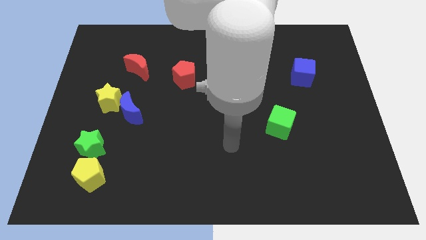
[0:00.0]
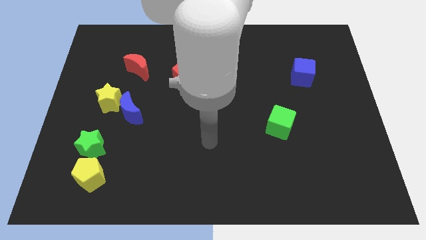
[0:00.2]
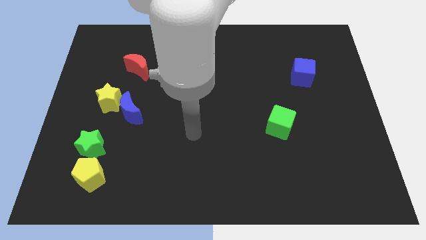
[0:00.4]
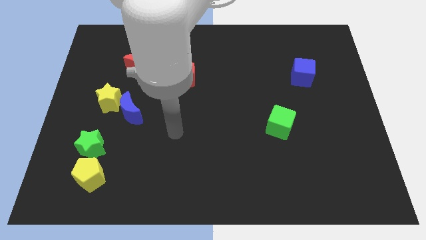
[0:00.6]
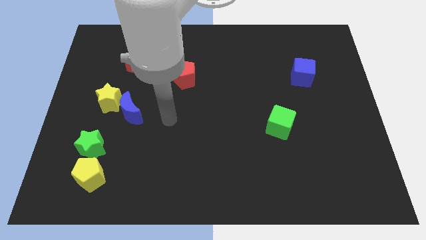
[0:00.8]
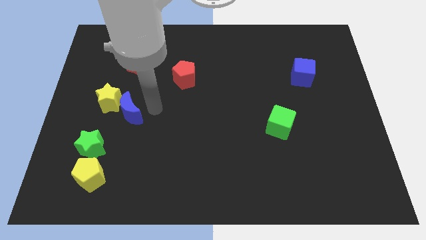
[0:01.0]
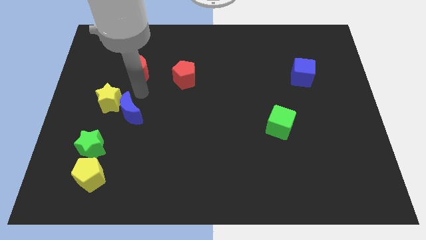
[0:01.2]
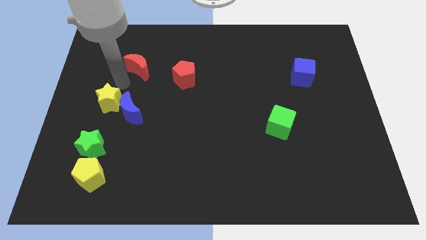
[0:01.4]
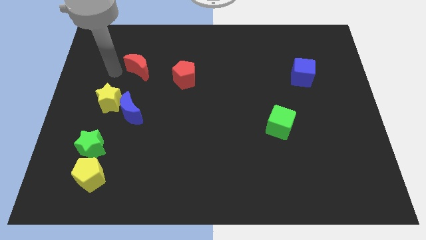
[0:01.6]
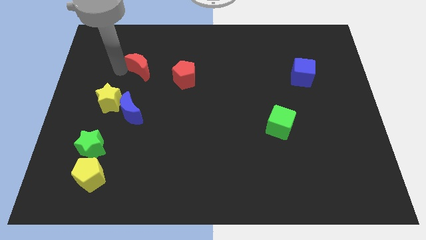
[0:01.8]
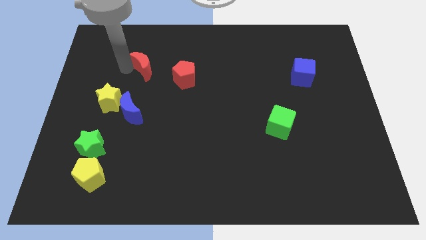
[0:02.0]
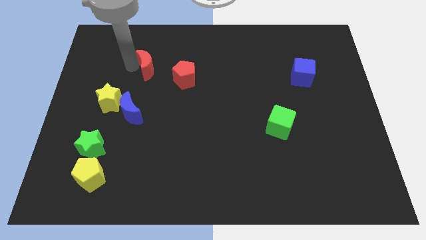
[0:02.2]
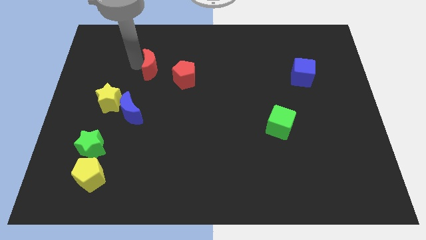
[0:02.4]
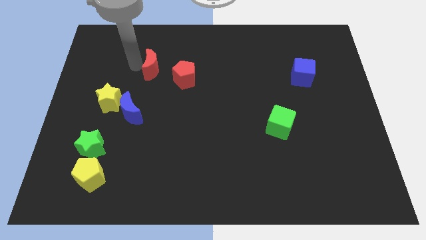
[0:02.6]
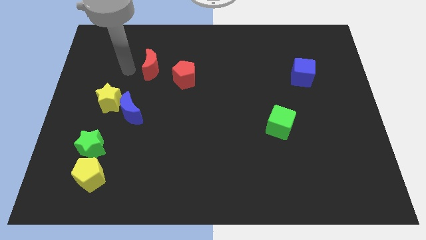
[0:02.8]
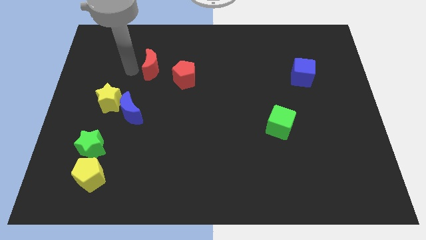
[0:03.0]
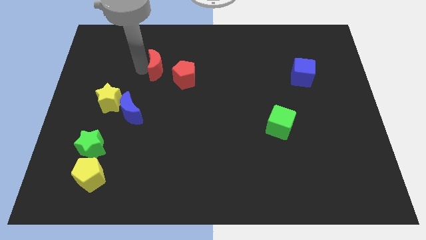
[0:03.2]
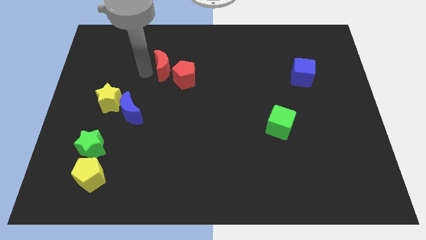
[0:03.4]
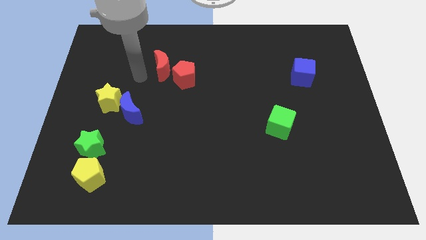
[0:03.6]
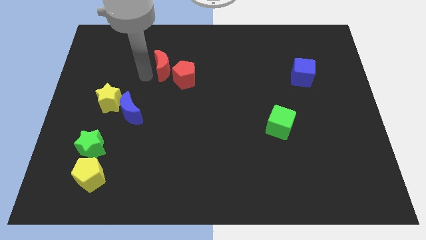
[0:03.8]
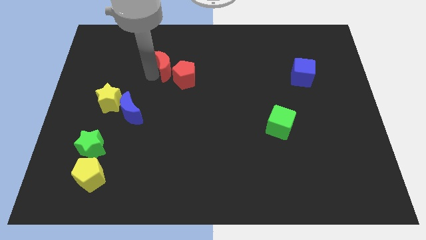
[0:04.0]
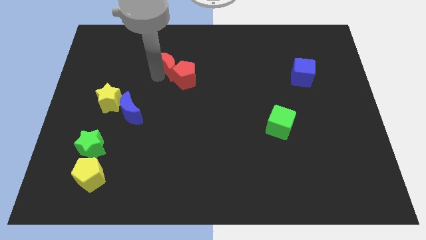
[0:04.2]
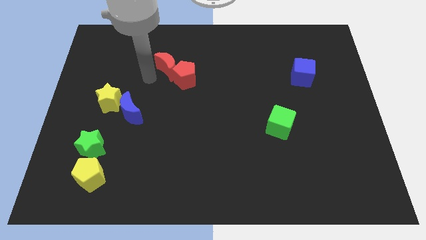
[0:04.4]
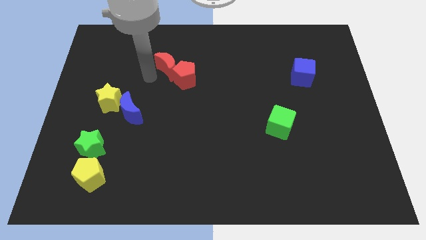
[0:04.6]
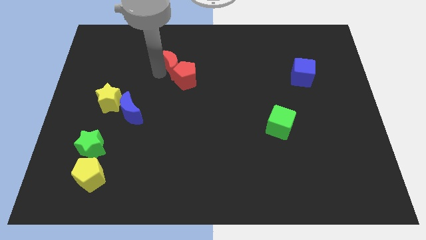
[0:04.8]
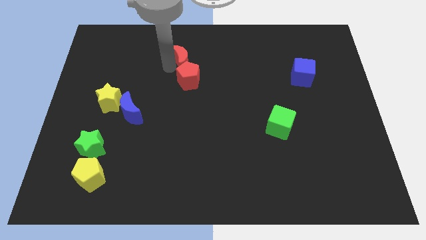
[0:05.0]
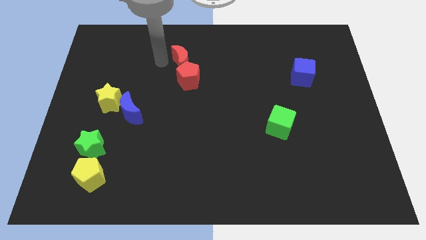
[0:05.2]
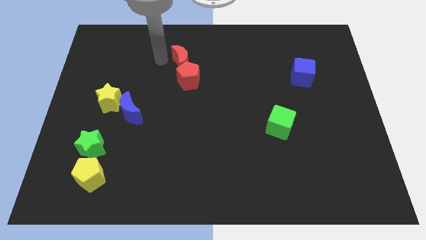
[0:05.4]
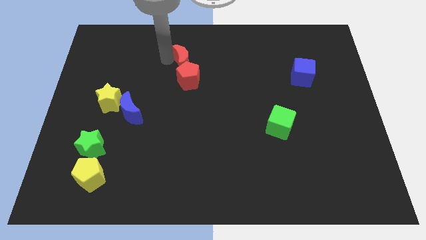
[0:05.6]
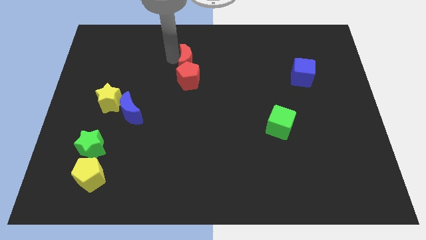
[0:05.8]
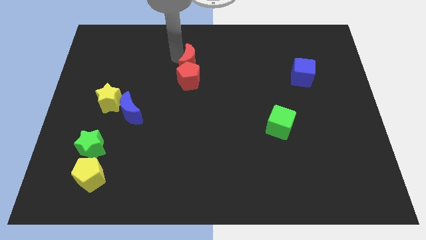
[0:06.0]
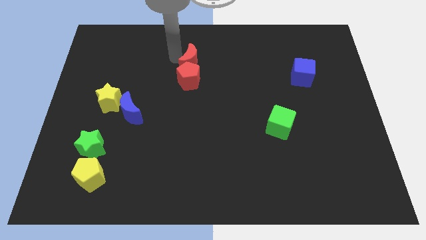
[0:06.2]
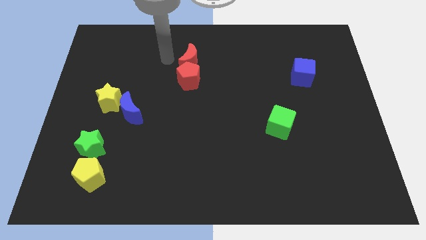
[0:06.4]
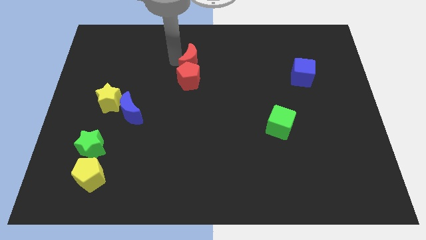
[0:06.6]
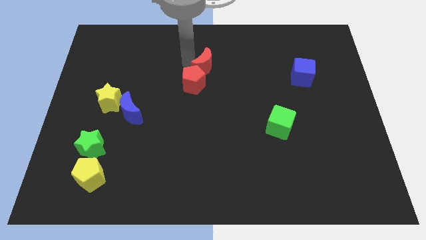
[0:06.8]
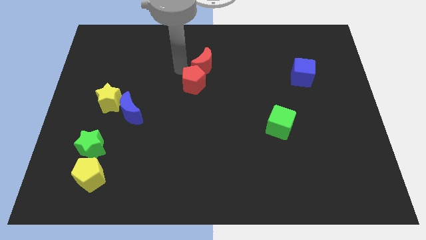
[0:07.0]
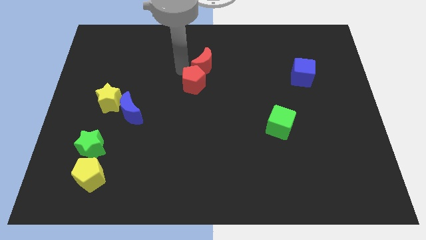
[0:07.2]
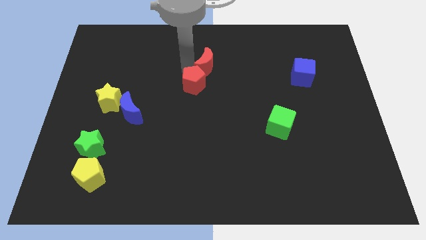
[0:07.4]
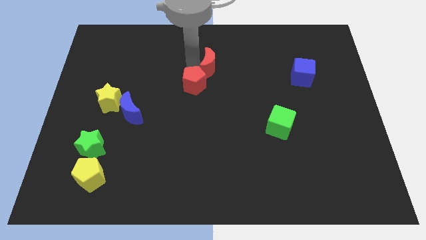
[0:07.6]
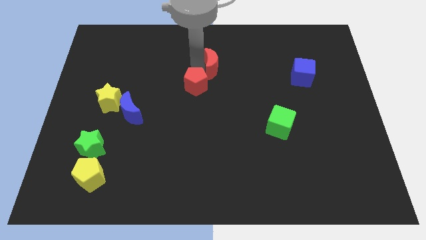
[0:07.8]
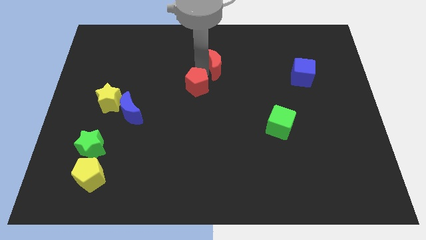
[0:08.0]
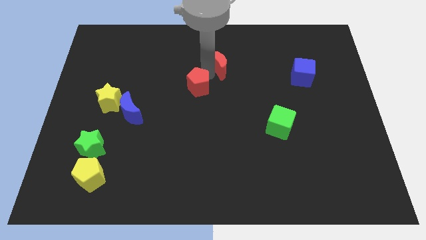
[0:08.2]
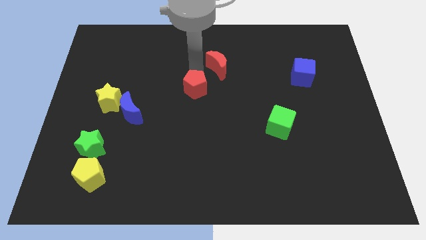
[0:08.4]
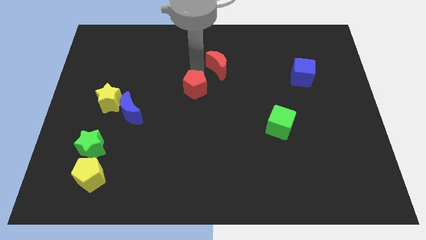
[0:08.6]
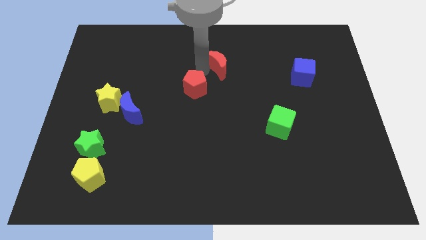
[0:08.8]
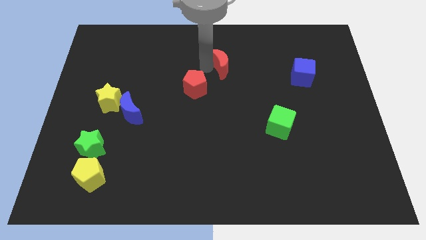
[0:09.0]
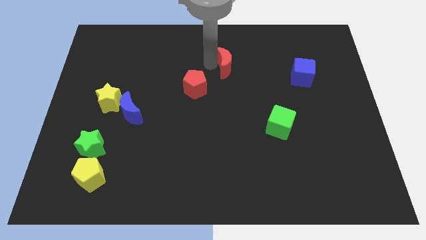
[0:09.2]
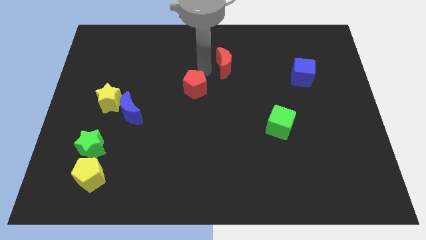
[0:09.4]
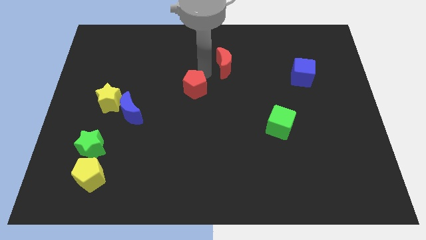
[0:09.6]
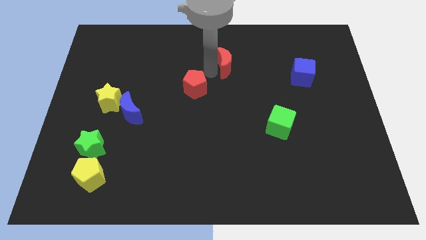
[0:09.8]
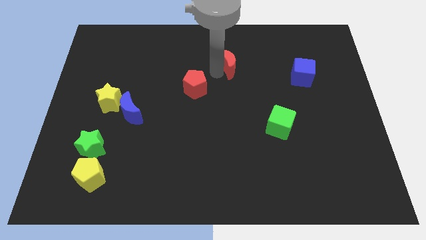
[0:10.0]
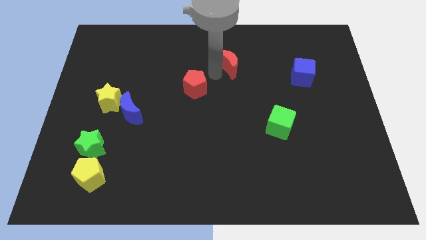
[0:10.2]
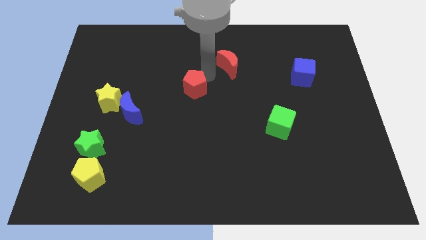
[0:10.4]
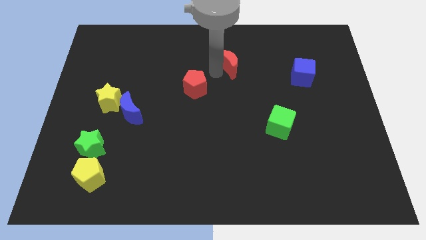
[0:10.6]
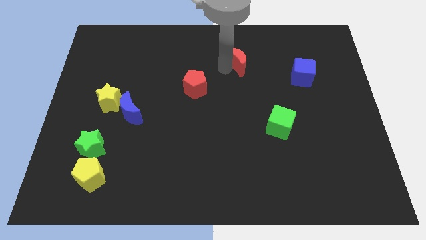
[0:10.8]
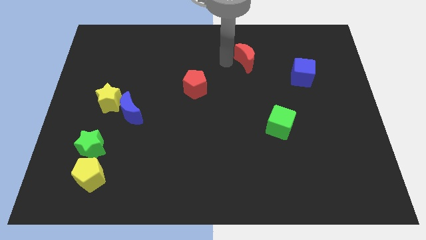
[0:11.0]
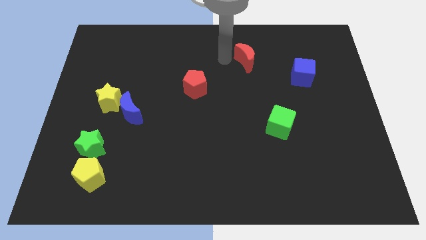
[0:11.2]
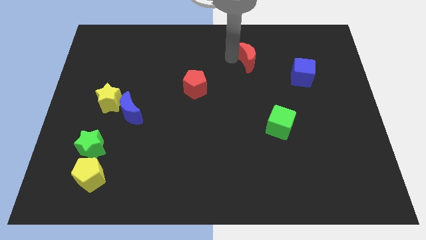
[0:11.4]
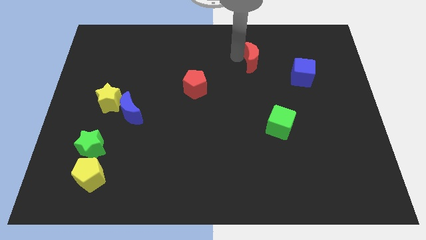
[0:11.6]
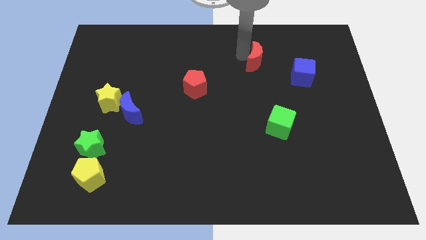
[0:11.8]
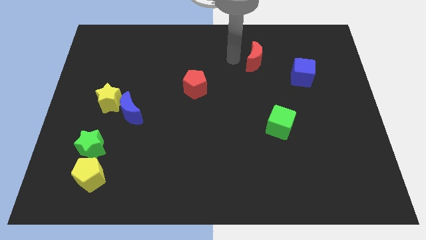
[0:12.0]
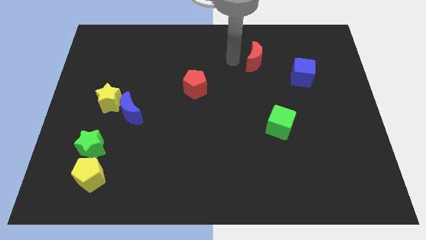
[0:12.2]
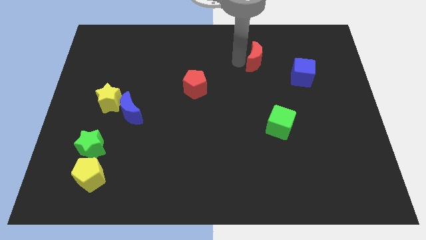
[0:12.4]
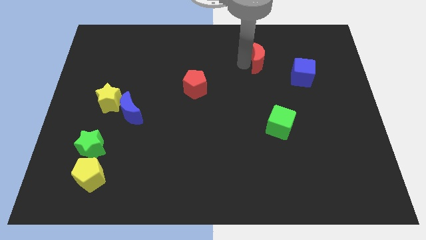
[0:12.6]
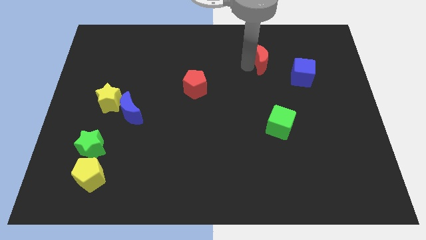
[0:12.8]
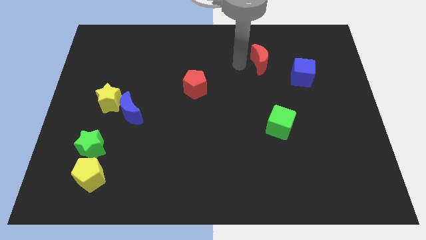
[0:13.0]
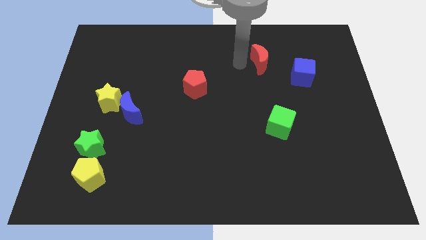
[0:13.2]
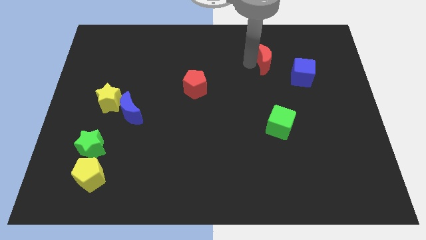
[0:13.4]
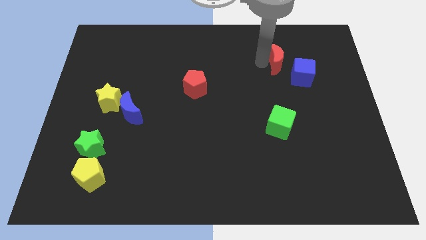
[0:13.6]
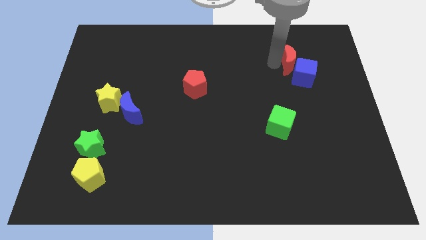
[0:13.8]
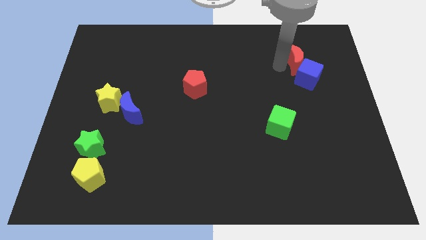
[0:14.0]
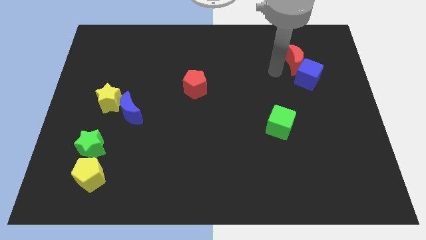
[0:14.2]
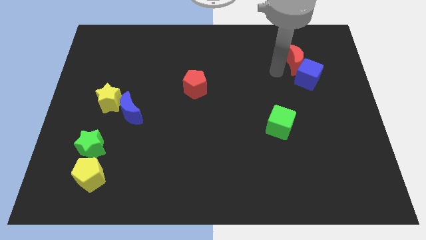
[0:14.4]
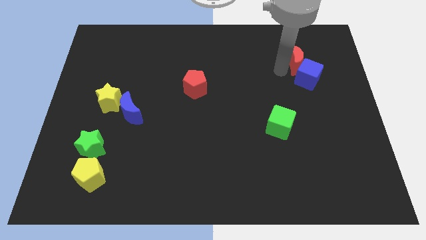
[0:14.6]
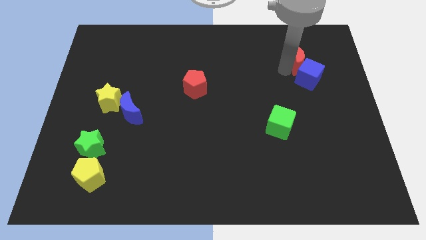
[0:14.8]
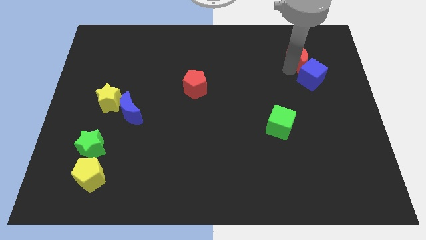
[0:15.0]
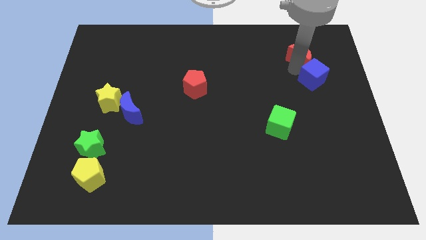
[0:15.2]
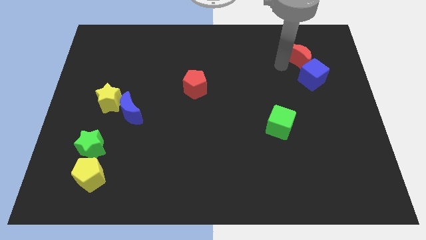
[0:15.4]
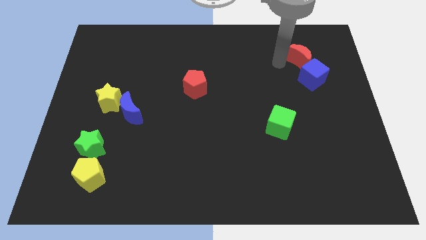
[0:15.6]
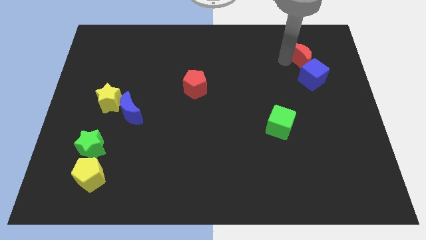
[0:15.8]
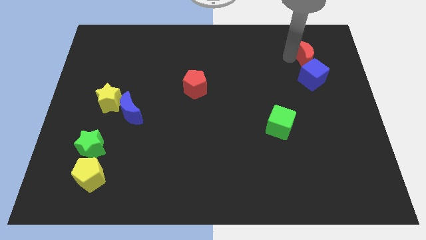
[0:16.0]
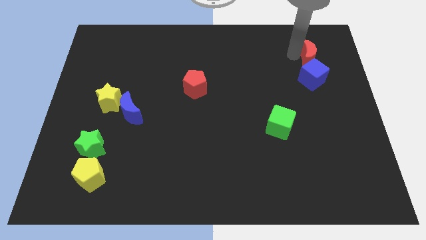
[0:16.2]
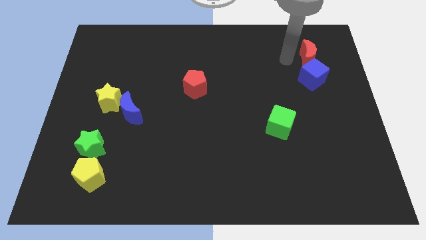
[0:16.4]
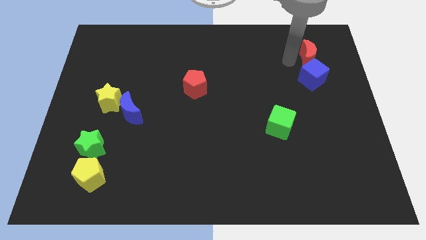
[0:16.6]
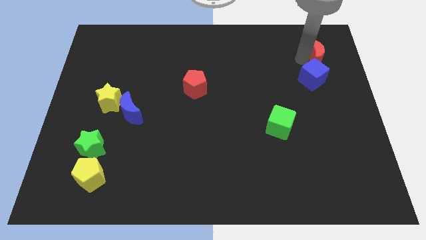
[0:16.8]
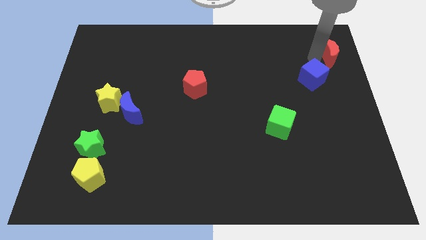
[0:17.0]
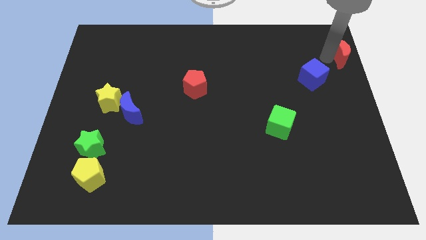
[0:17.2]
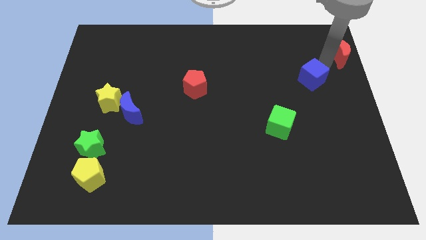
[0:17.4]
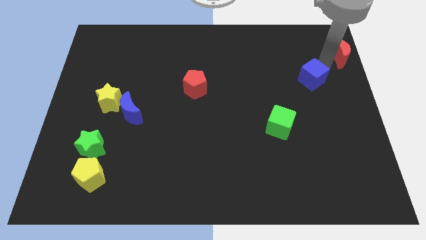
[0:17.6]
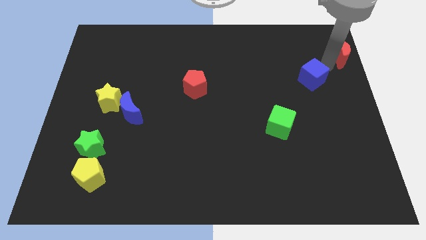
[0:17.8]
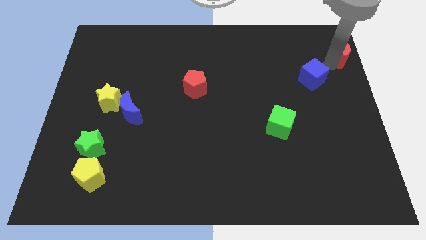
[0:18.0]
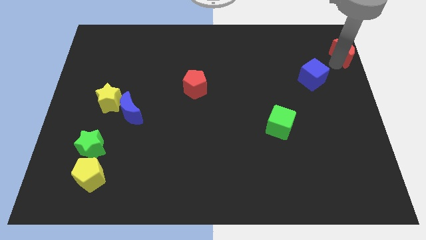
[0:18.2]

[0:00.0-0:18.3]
slide the red moon to the top right corner
